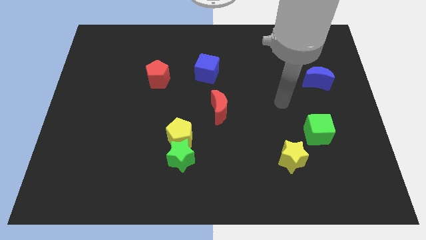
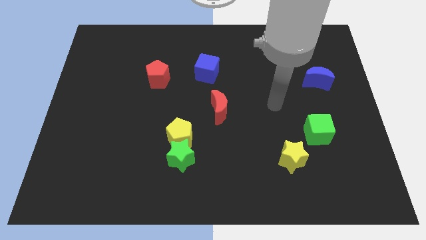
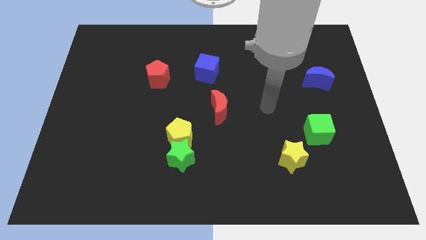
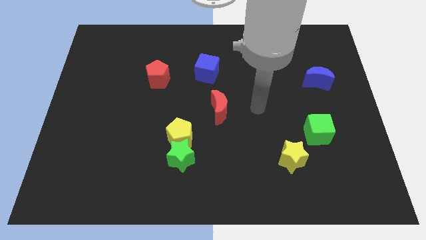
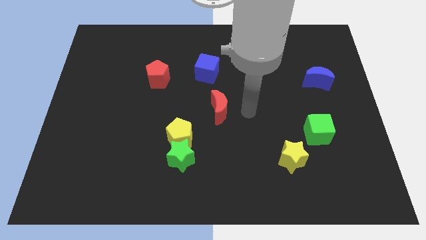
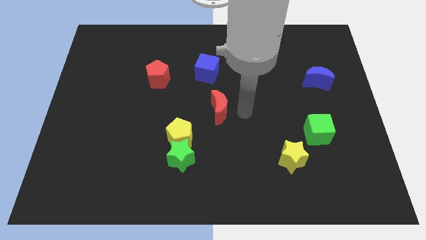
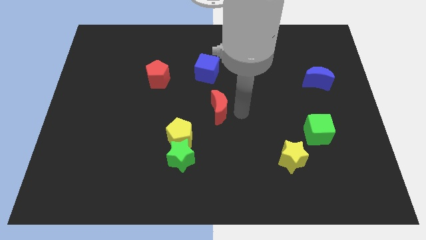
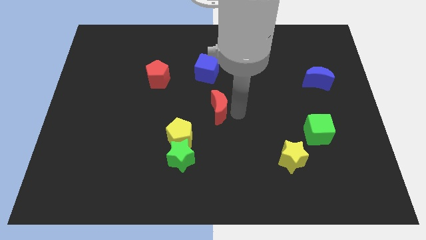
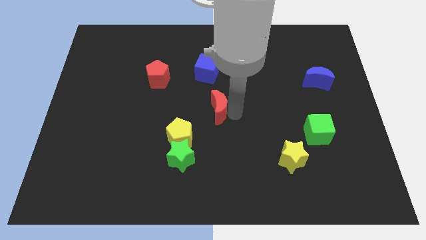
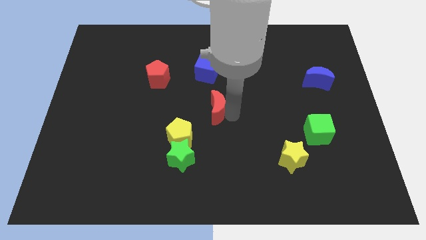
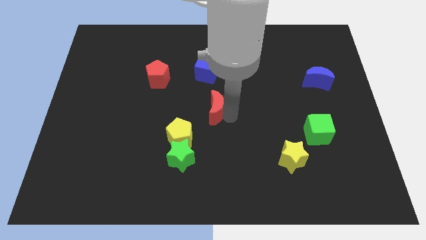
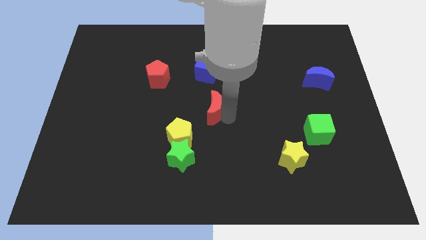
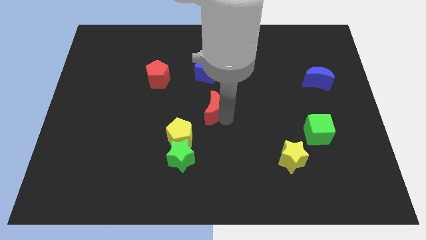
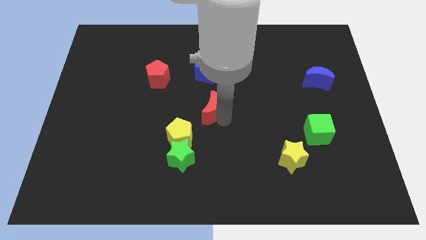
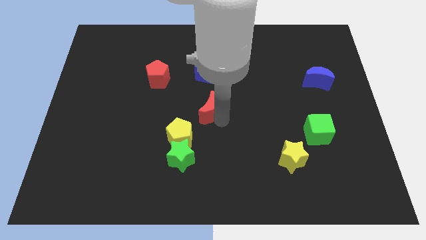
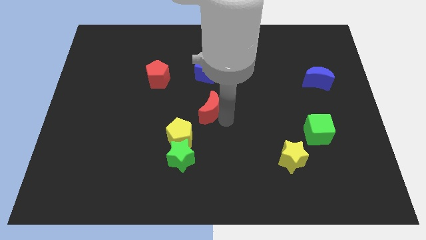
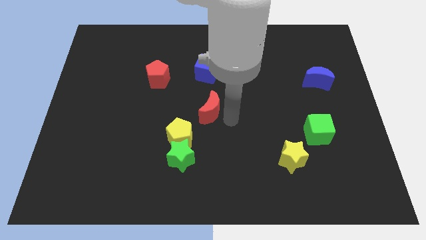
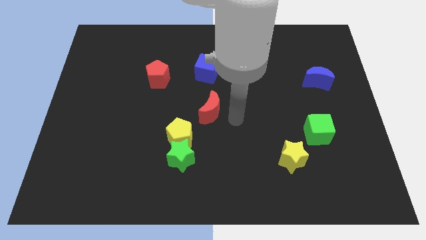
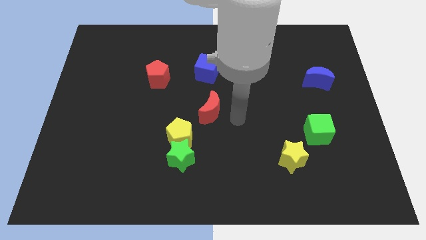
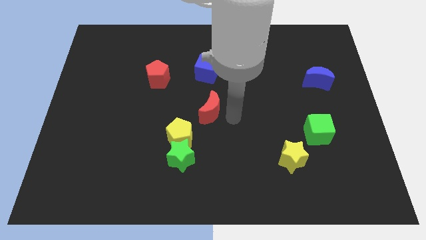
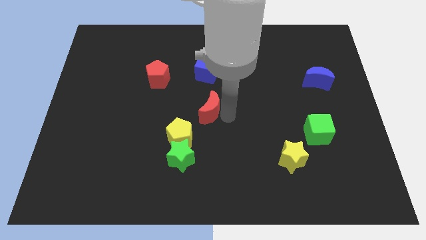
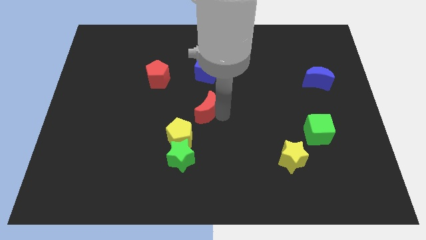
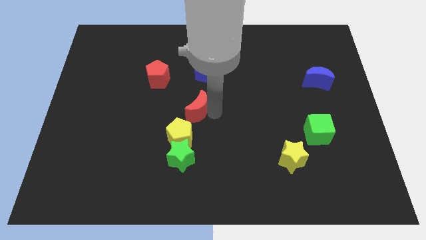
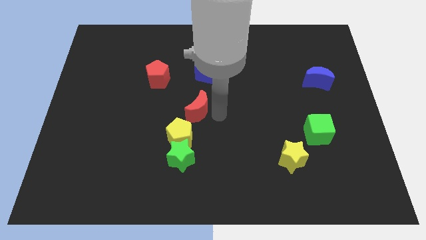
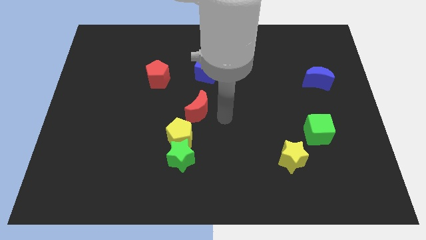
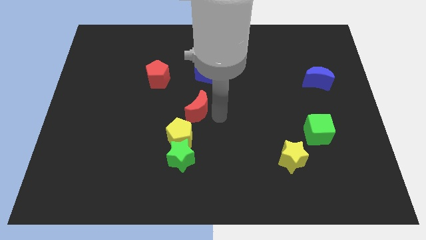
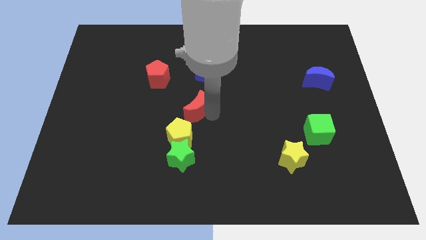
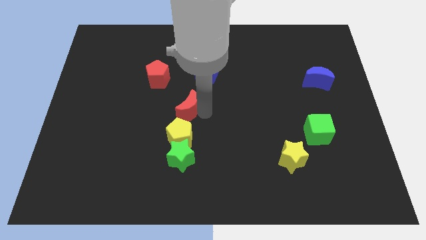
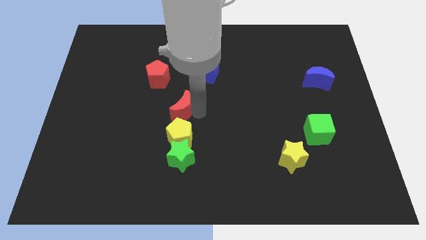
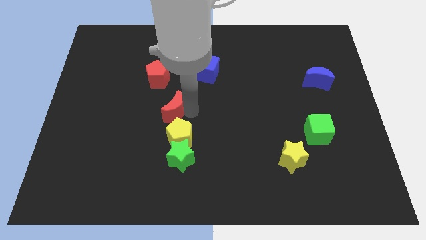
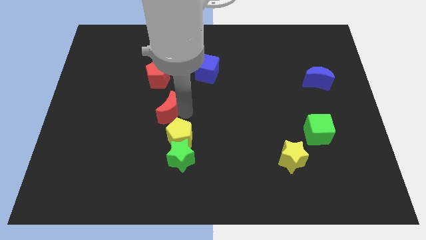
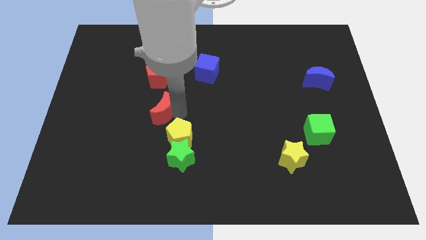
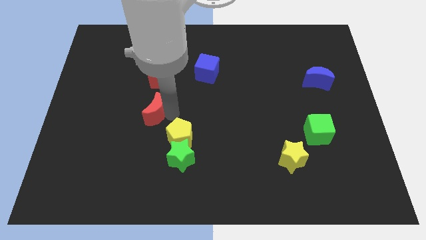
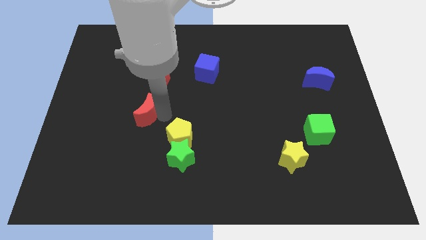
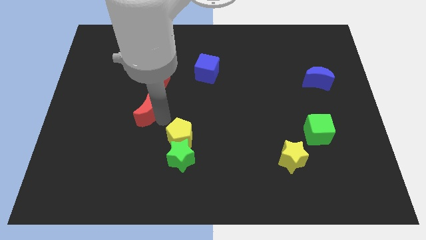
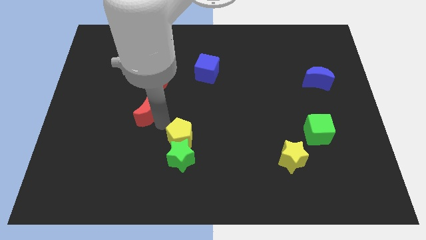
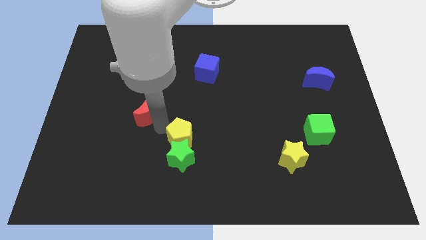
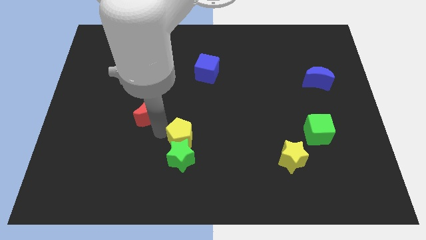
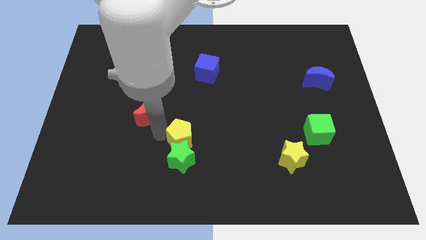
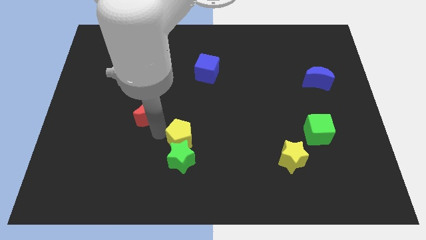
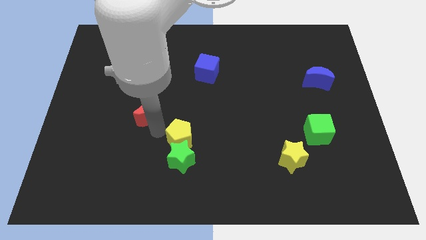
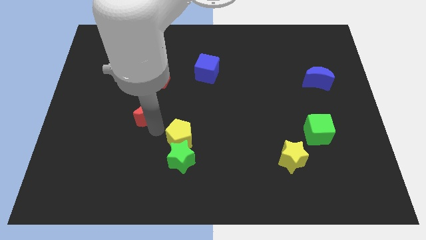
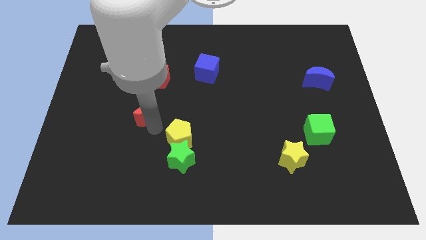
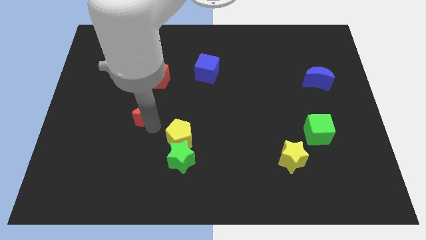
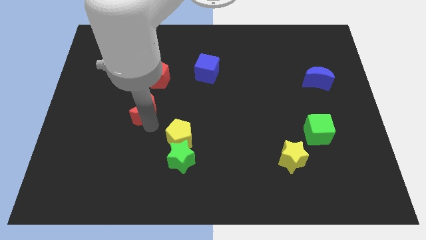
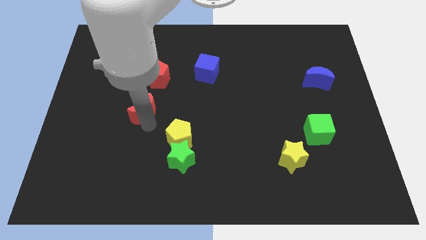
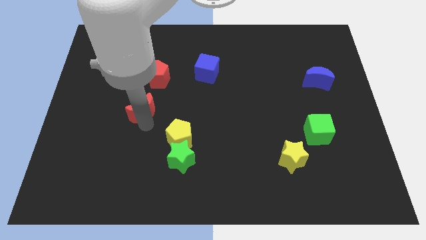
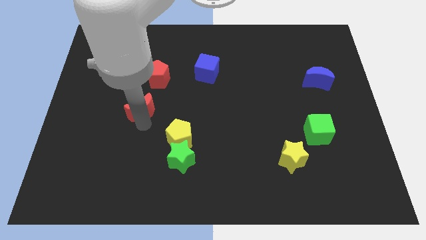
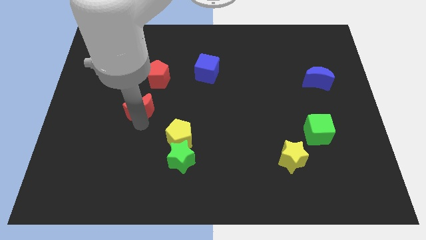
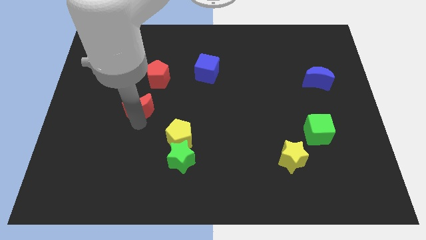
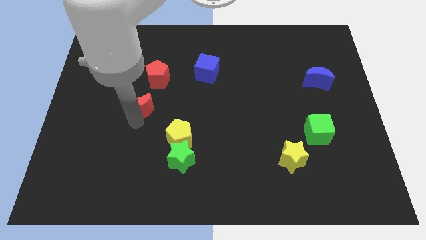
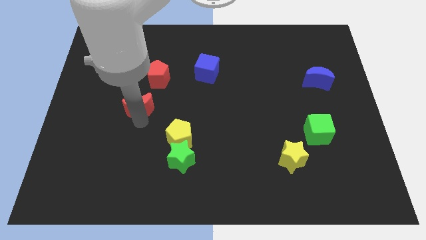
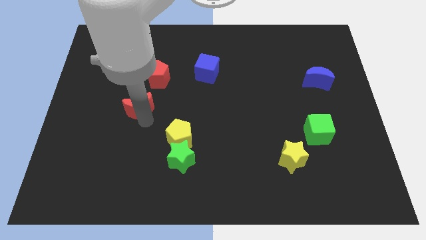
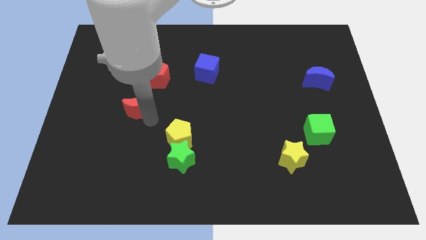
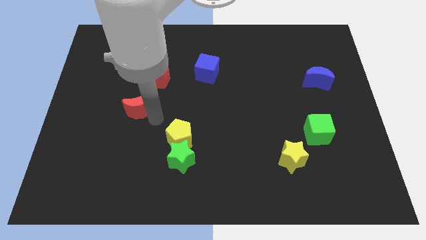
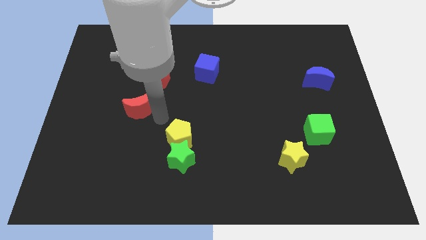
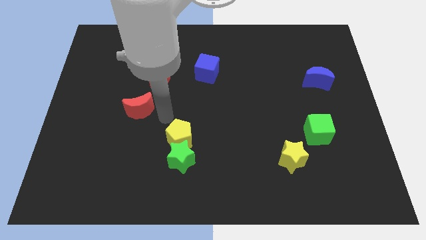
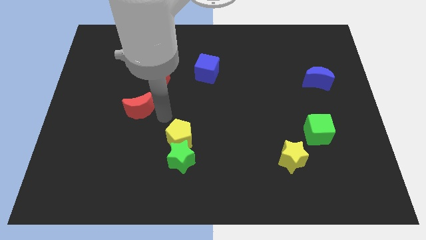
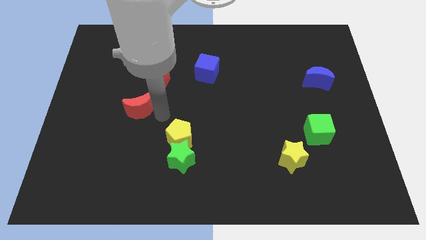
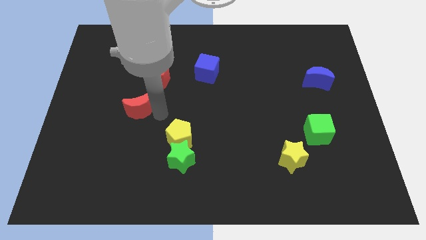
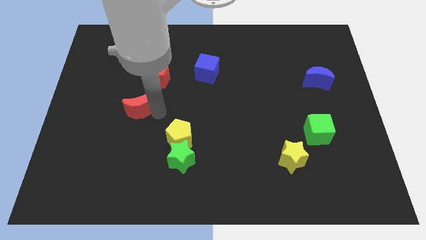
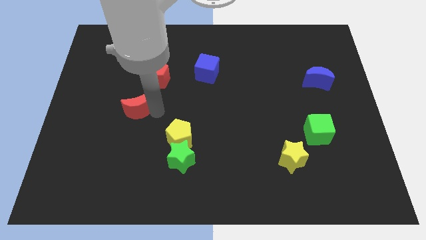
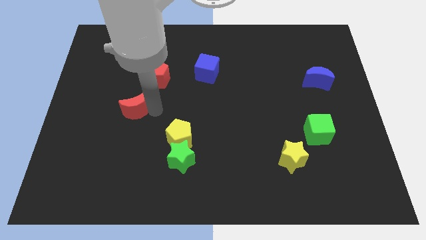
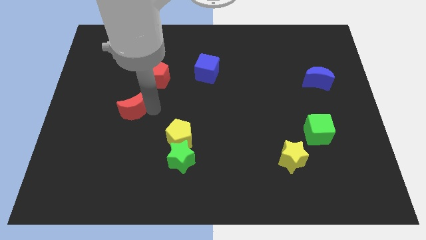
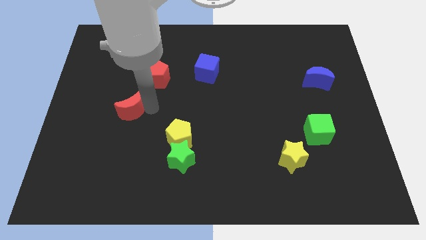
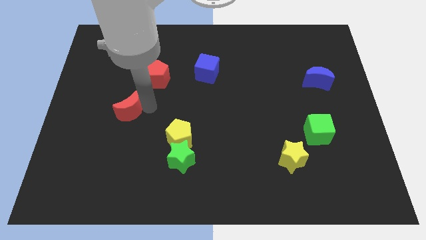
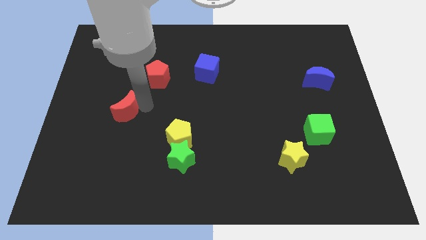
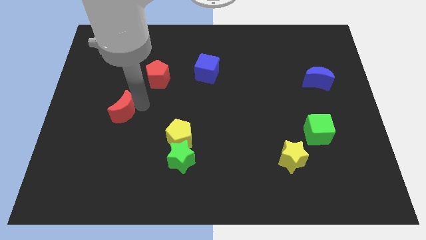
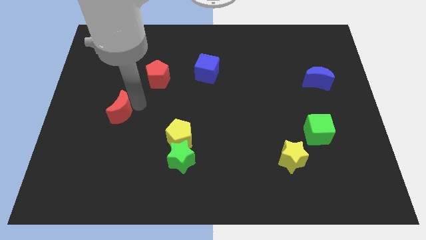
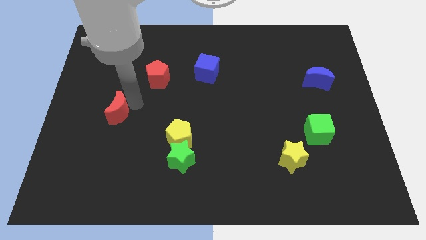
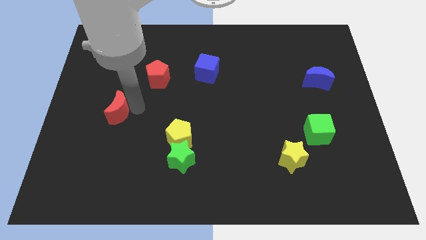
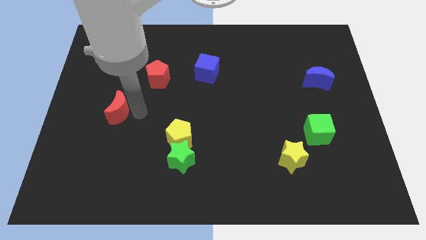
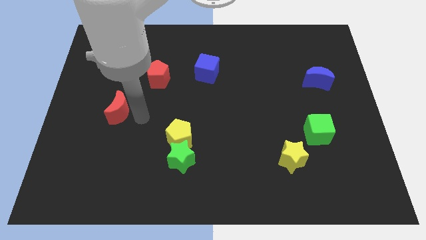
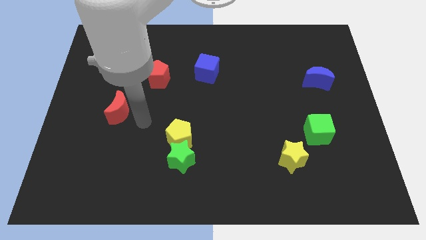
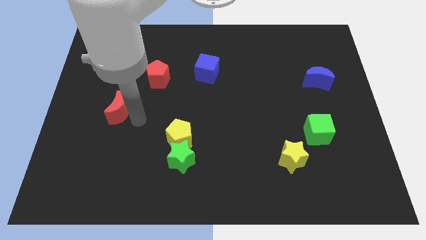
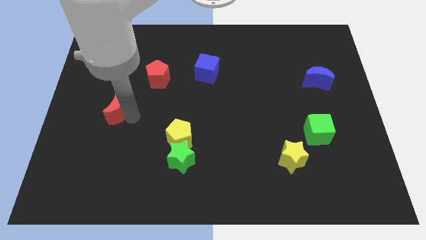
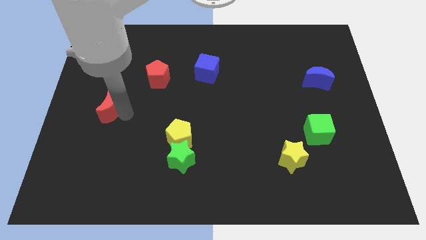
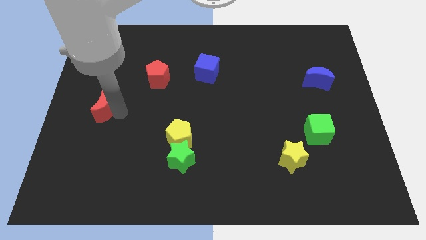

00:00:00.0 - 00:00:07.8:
slide the red moon to the left side of the board
